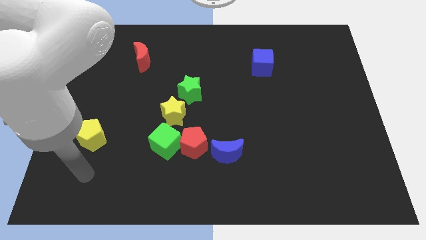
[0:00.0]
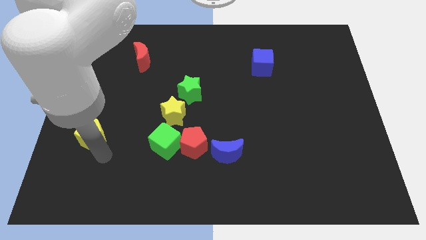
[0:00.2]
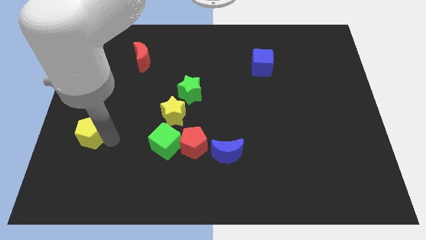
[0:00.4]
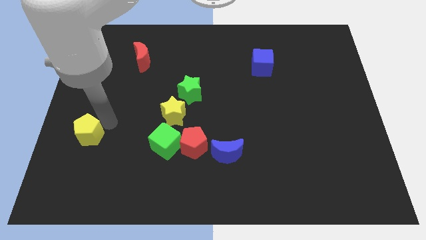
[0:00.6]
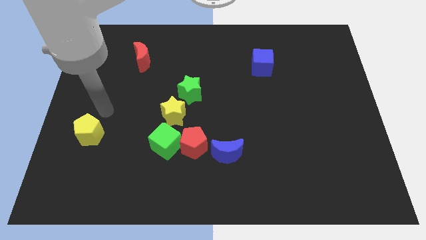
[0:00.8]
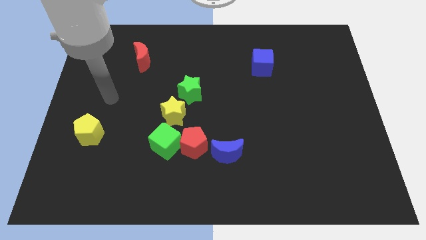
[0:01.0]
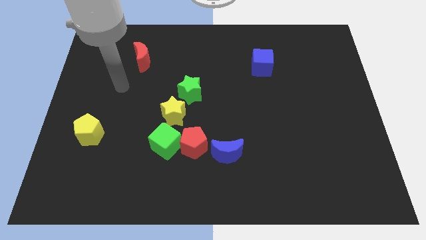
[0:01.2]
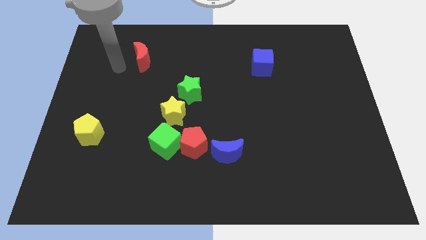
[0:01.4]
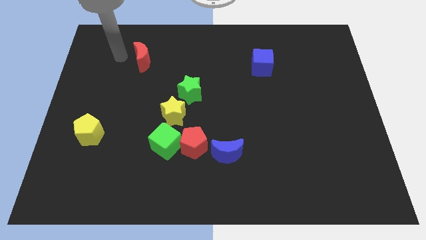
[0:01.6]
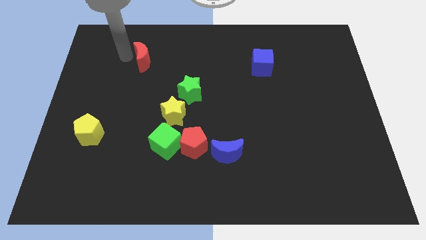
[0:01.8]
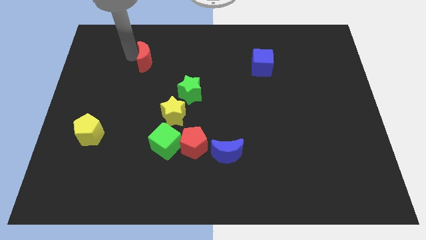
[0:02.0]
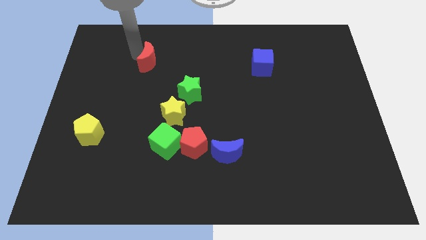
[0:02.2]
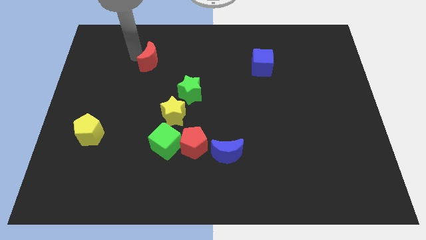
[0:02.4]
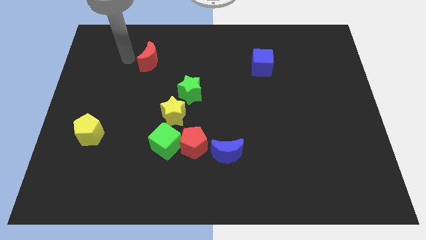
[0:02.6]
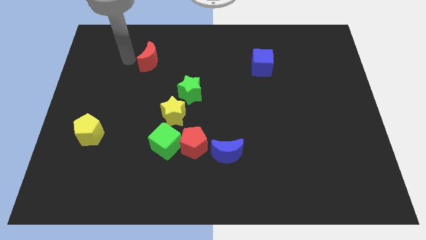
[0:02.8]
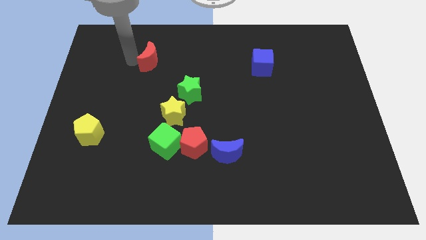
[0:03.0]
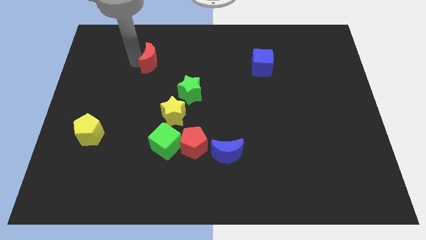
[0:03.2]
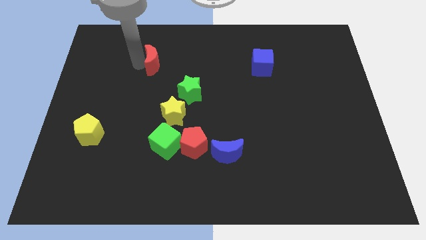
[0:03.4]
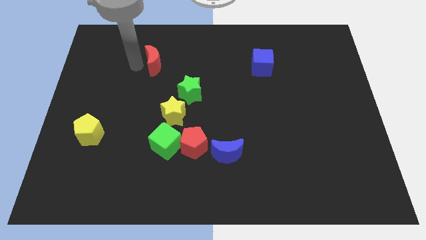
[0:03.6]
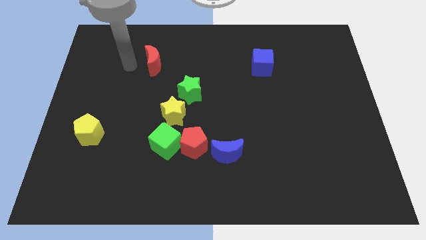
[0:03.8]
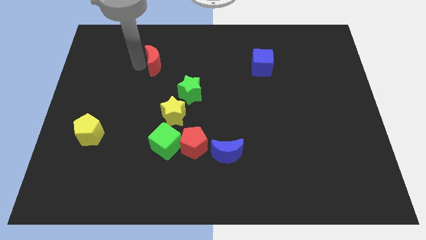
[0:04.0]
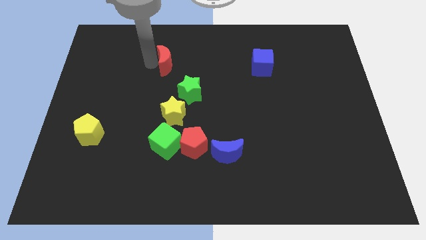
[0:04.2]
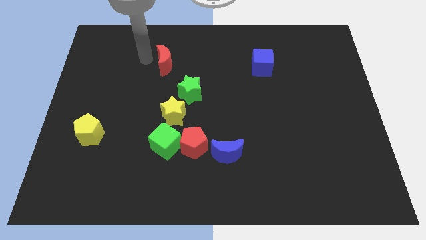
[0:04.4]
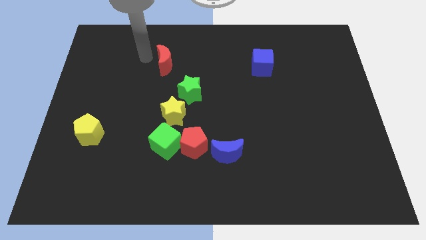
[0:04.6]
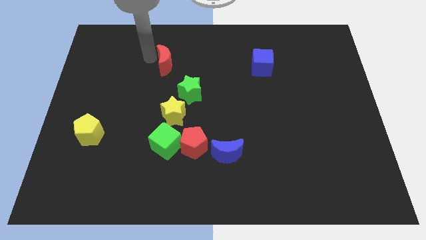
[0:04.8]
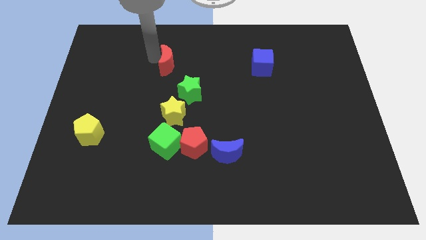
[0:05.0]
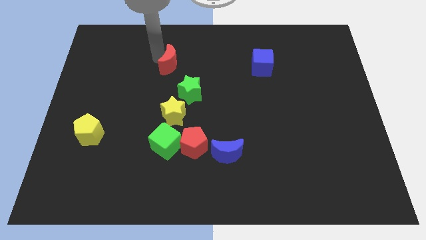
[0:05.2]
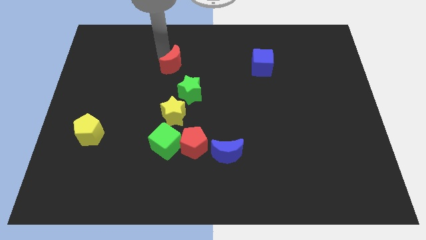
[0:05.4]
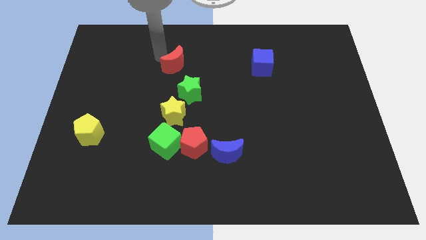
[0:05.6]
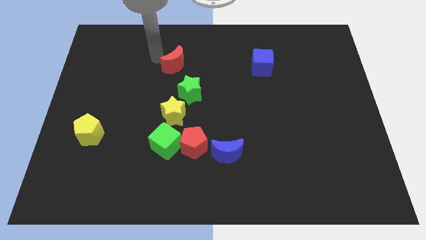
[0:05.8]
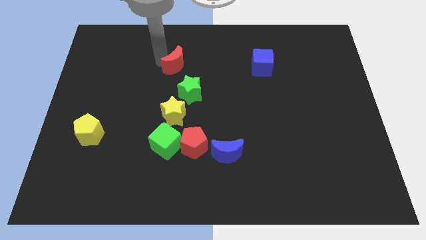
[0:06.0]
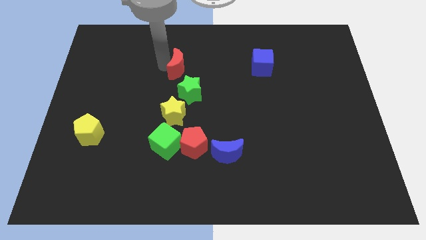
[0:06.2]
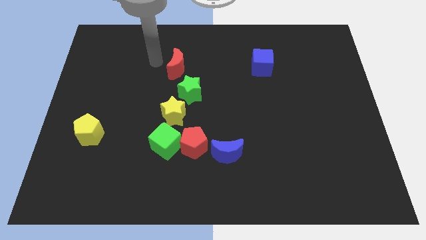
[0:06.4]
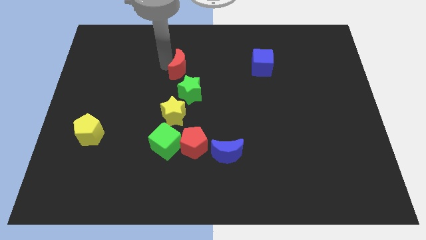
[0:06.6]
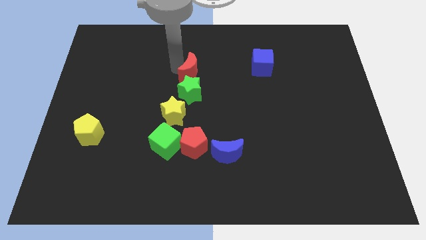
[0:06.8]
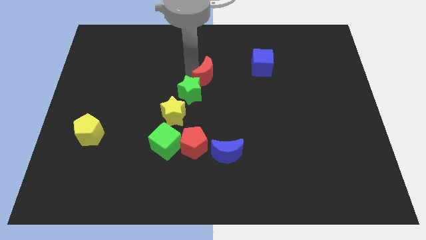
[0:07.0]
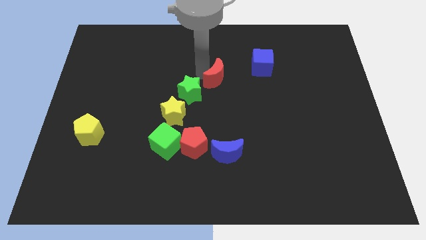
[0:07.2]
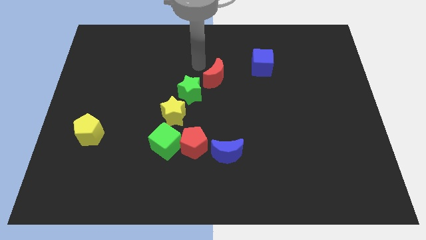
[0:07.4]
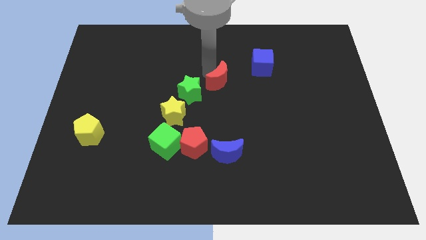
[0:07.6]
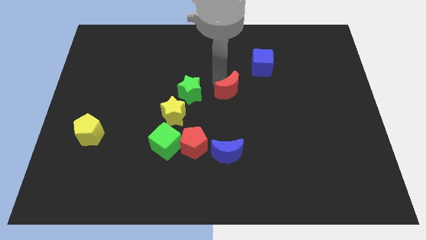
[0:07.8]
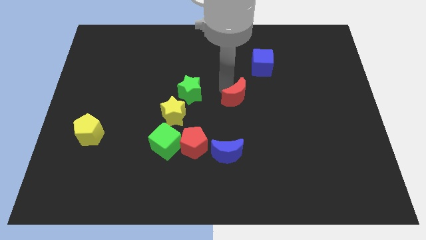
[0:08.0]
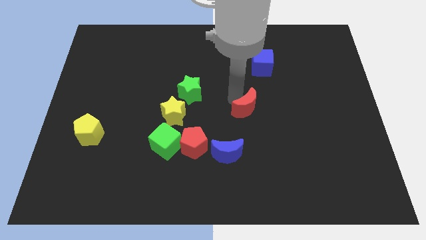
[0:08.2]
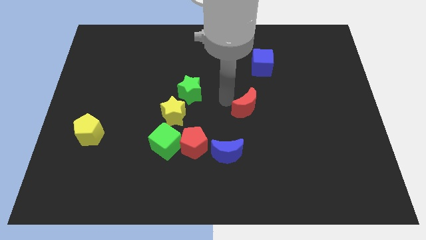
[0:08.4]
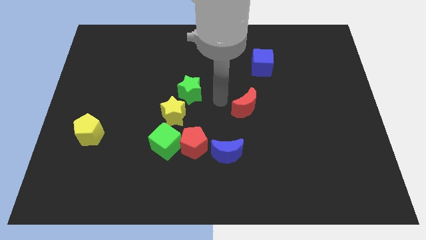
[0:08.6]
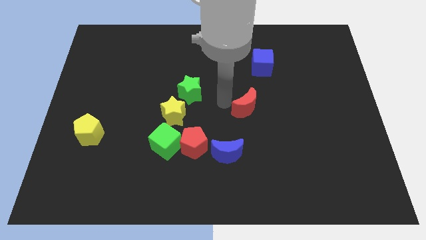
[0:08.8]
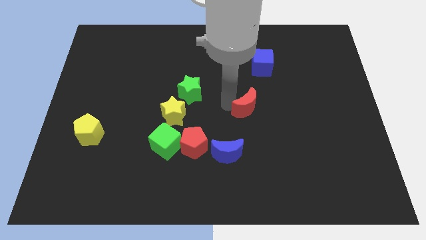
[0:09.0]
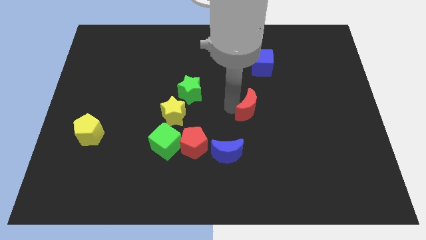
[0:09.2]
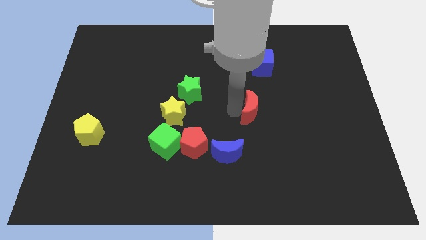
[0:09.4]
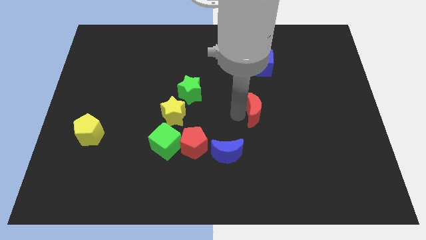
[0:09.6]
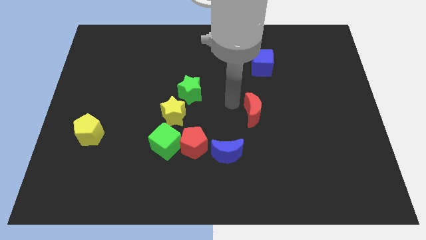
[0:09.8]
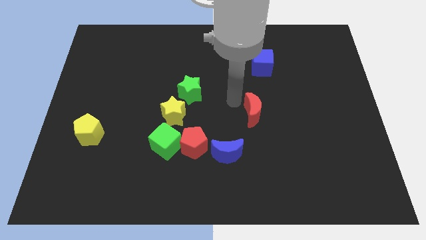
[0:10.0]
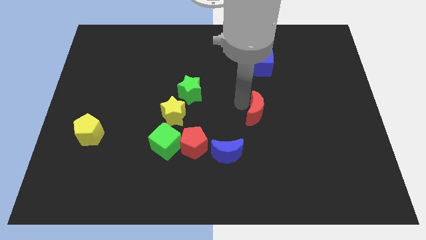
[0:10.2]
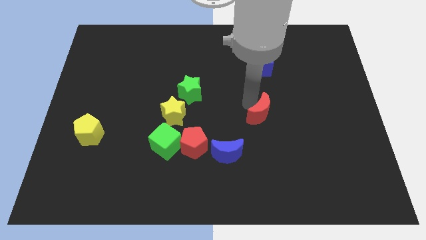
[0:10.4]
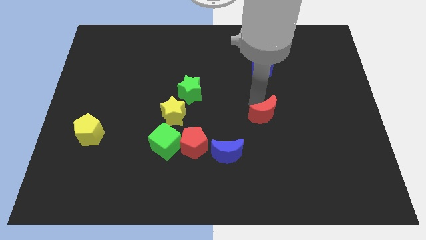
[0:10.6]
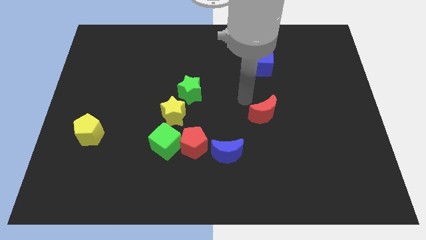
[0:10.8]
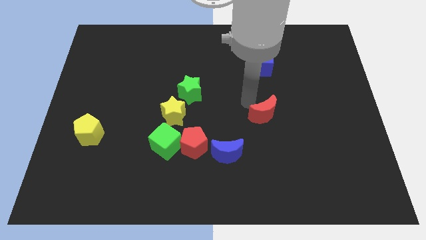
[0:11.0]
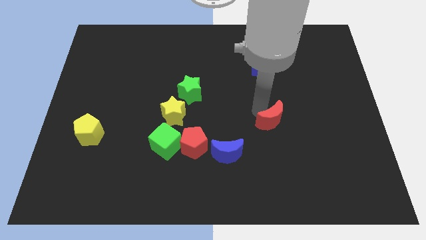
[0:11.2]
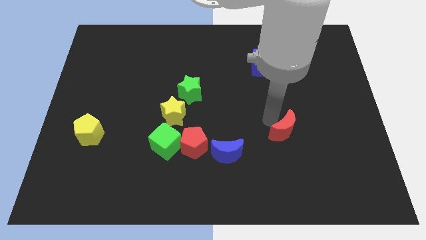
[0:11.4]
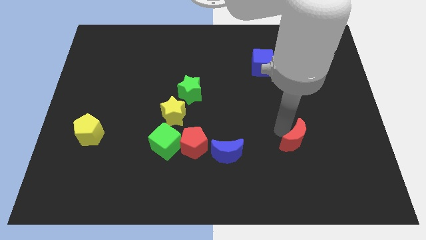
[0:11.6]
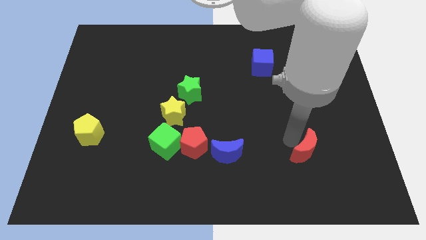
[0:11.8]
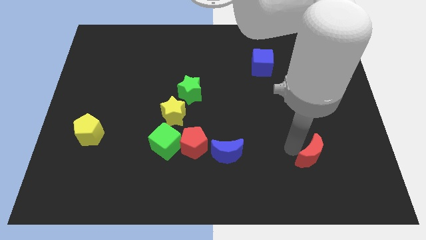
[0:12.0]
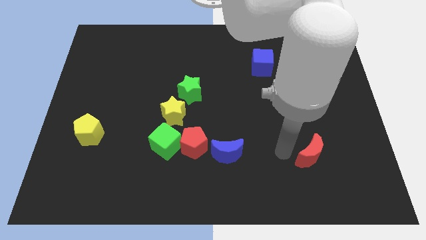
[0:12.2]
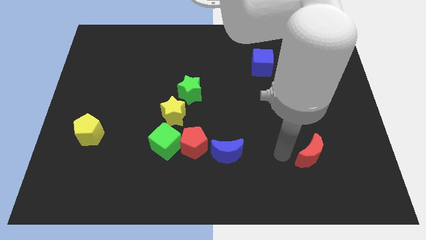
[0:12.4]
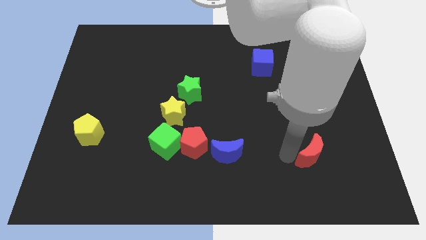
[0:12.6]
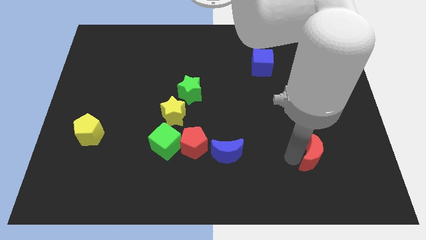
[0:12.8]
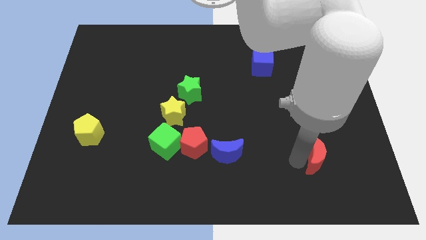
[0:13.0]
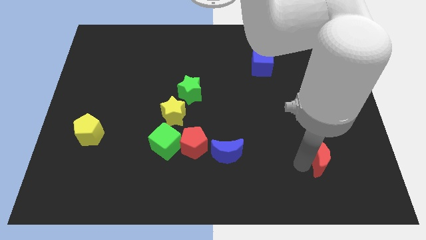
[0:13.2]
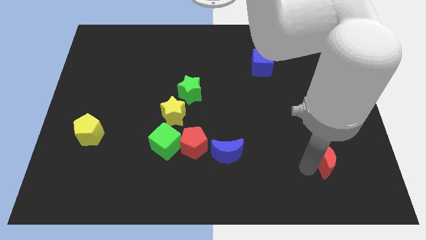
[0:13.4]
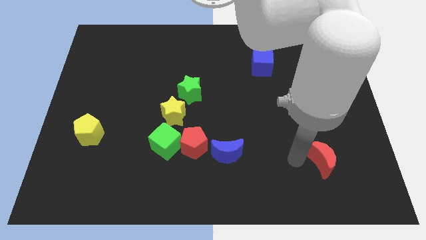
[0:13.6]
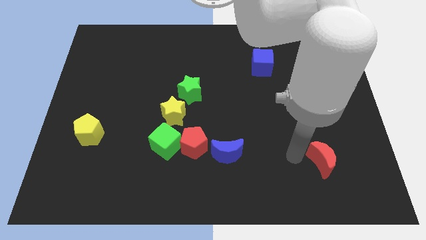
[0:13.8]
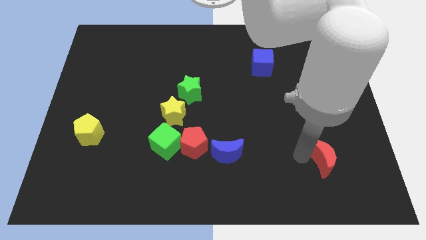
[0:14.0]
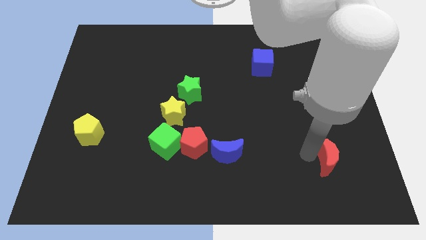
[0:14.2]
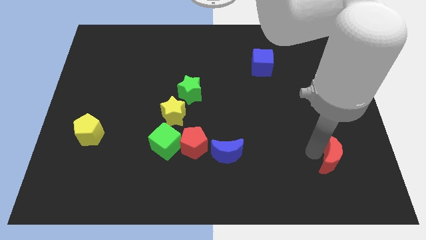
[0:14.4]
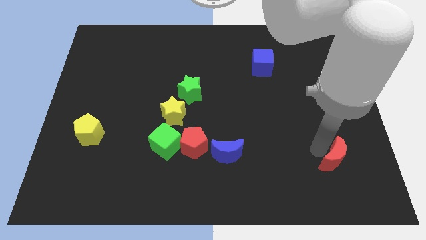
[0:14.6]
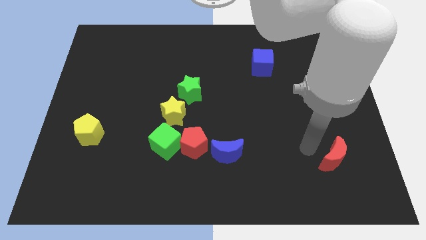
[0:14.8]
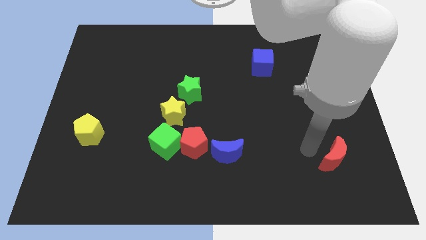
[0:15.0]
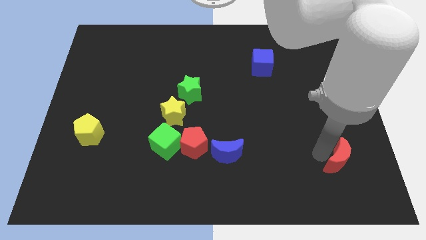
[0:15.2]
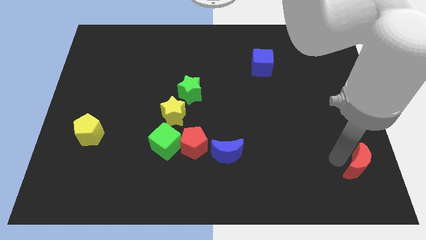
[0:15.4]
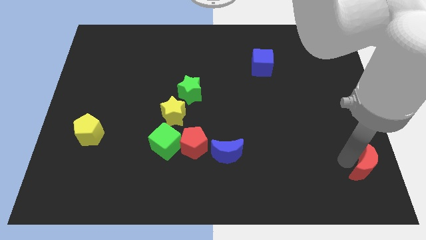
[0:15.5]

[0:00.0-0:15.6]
move the red moon to the bottom right
